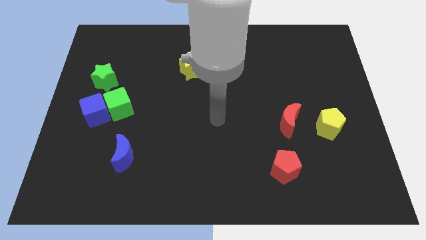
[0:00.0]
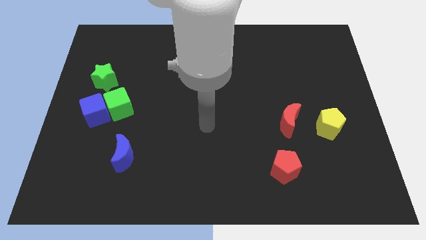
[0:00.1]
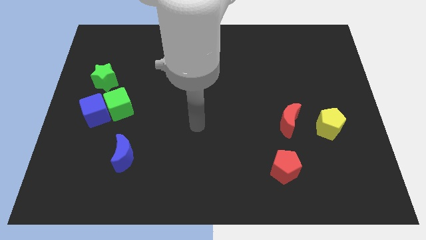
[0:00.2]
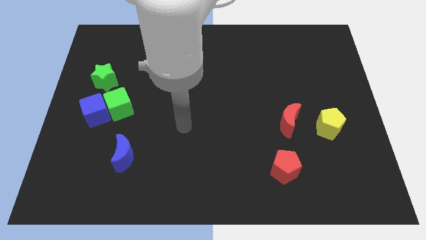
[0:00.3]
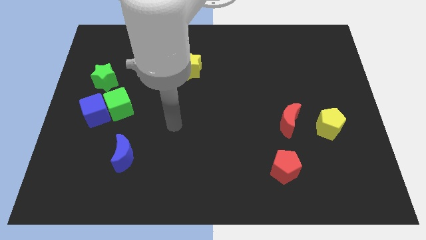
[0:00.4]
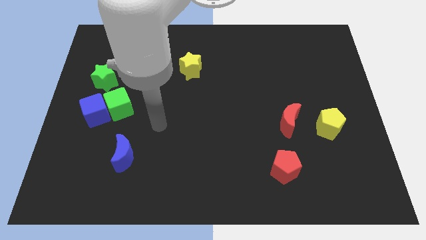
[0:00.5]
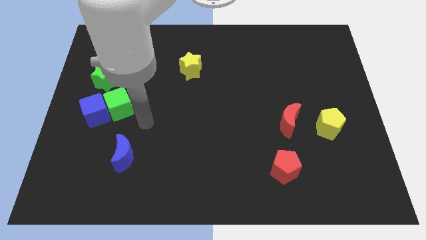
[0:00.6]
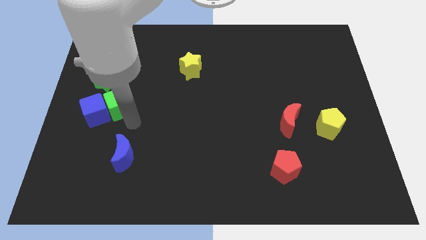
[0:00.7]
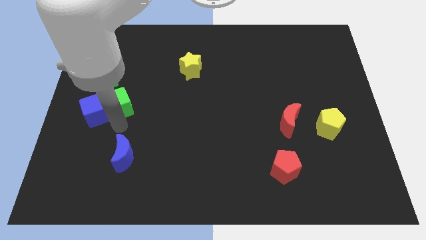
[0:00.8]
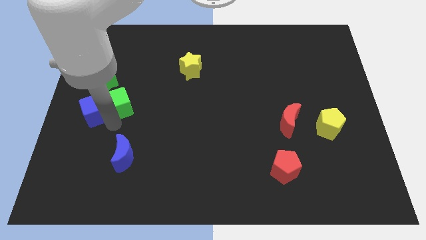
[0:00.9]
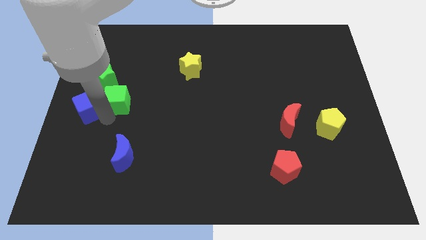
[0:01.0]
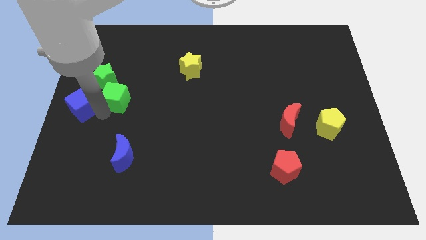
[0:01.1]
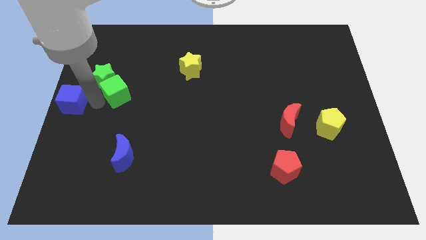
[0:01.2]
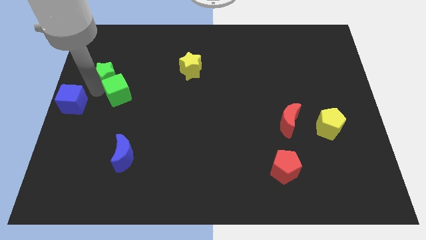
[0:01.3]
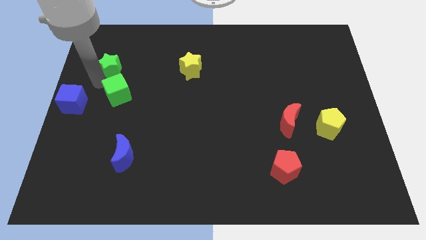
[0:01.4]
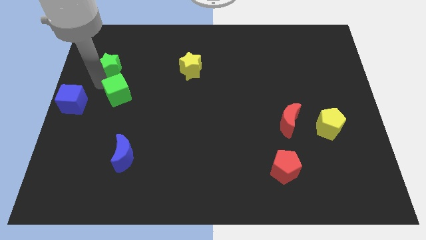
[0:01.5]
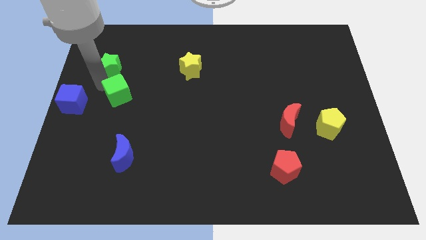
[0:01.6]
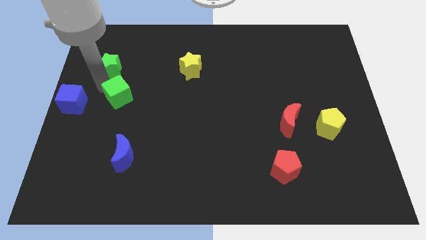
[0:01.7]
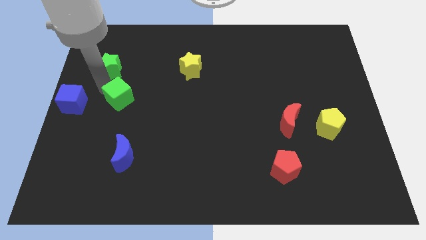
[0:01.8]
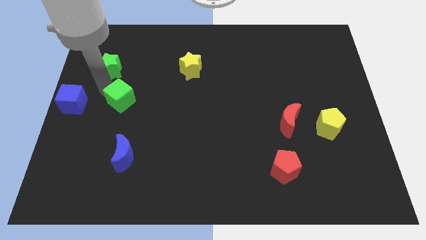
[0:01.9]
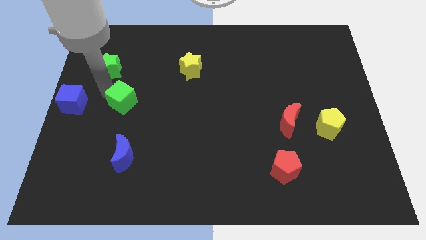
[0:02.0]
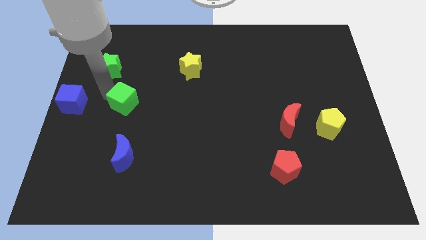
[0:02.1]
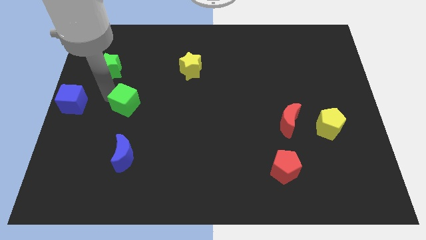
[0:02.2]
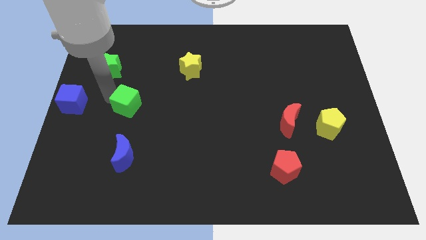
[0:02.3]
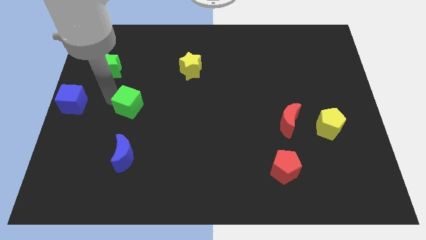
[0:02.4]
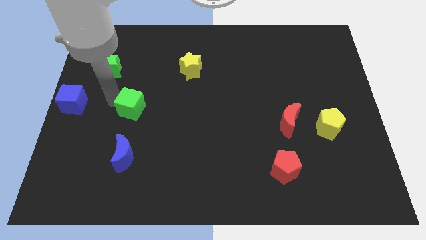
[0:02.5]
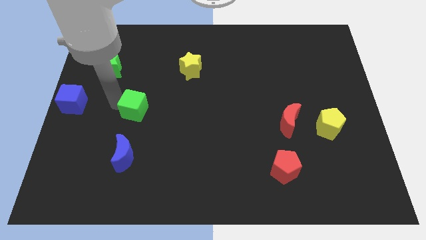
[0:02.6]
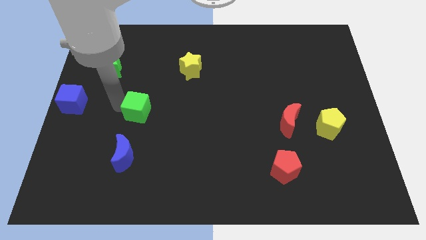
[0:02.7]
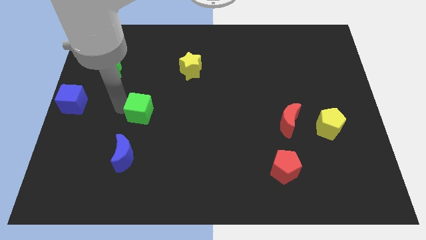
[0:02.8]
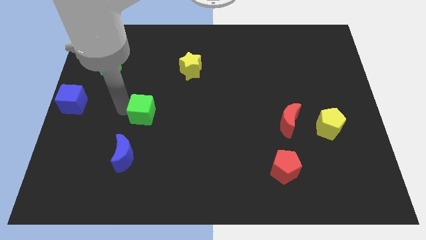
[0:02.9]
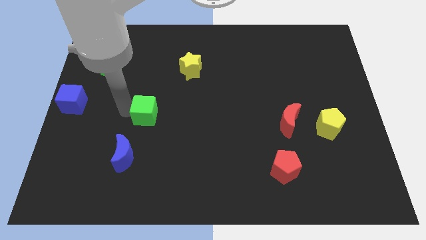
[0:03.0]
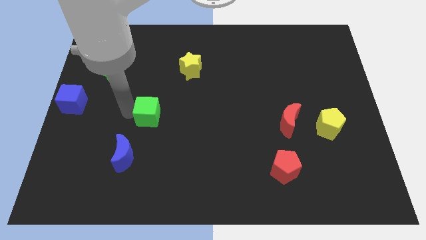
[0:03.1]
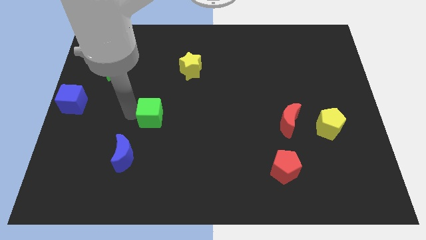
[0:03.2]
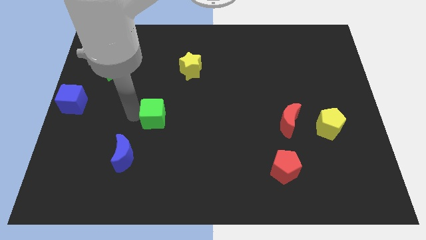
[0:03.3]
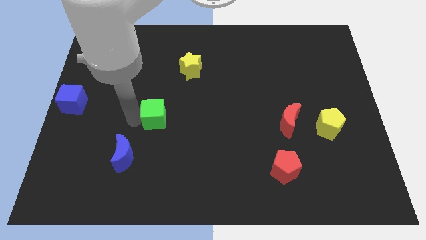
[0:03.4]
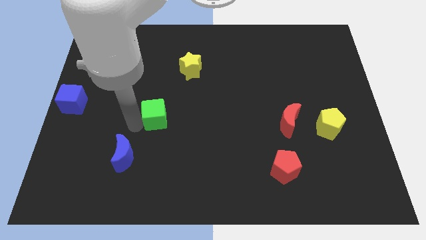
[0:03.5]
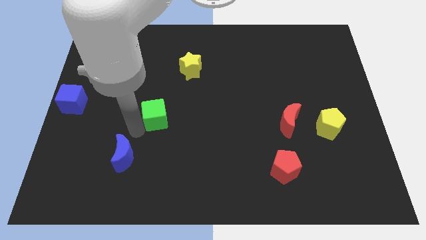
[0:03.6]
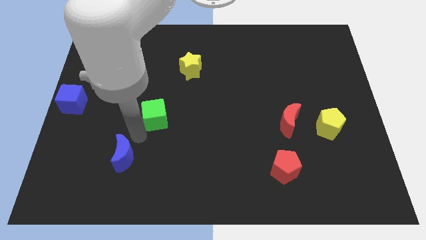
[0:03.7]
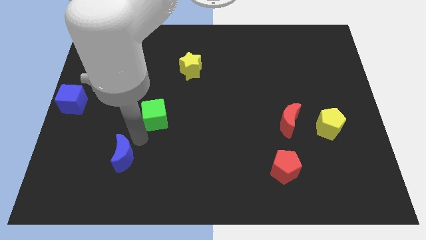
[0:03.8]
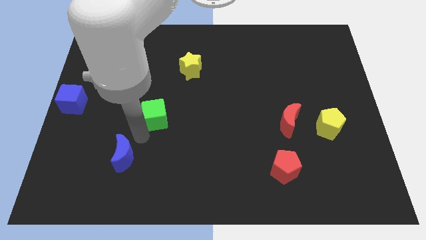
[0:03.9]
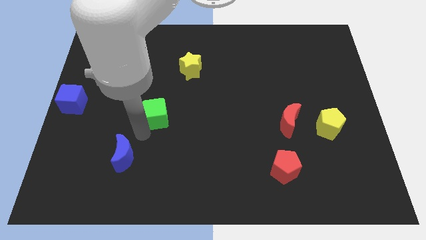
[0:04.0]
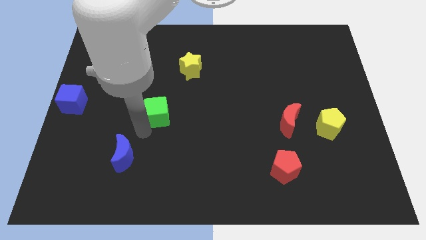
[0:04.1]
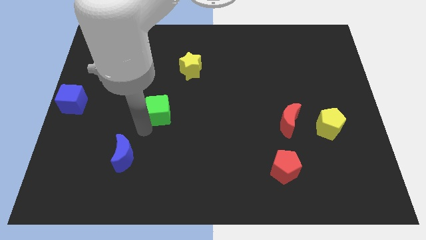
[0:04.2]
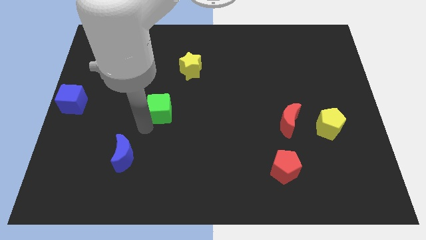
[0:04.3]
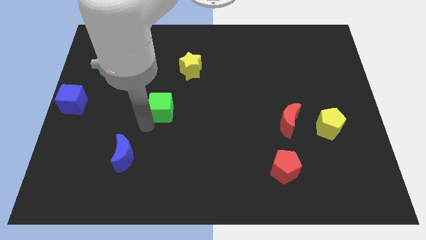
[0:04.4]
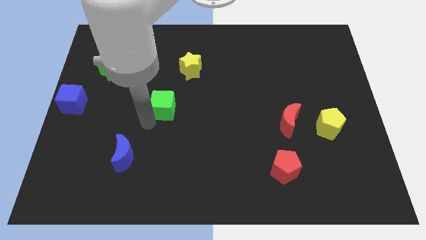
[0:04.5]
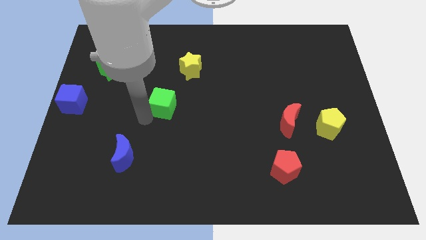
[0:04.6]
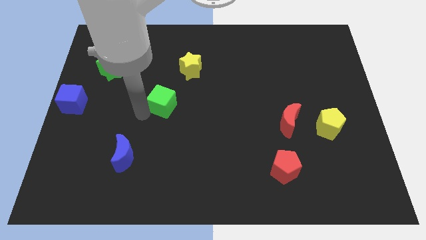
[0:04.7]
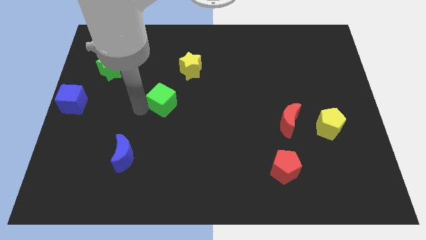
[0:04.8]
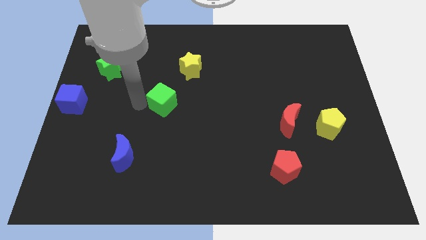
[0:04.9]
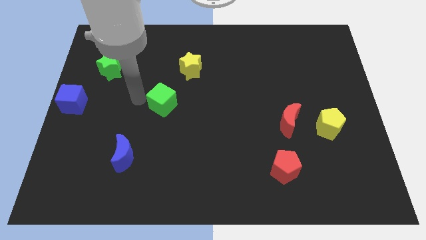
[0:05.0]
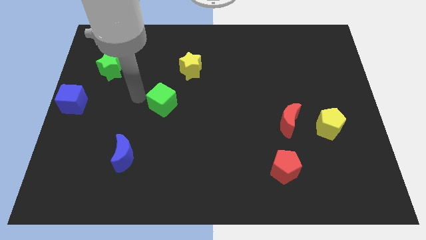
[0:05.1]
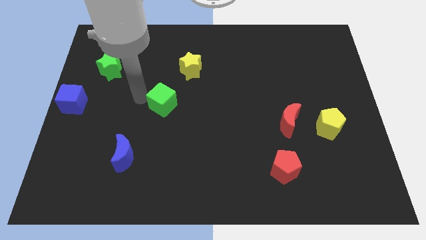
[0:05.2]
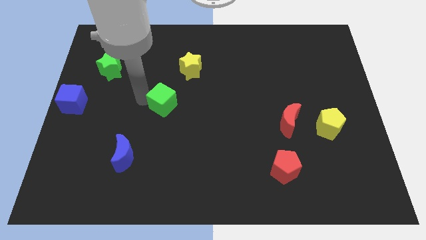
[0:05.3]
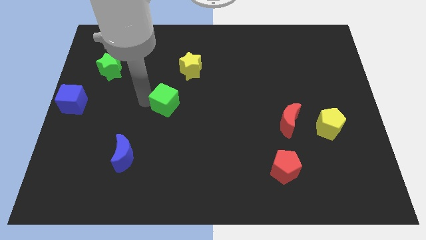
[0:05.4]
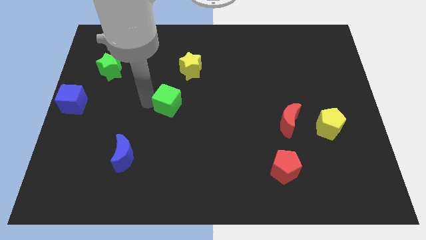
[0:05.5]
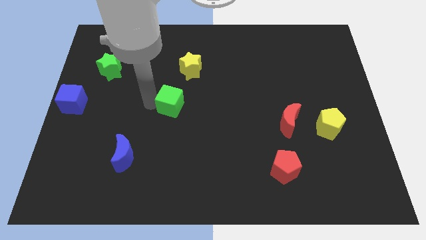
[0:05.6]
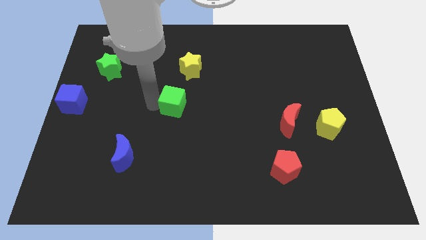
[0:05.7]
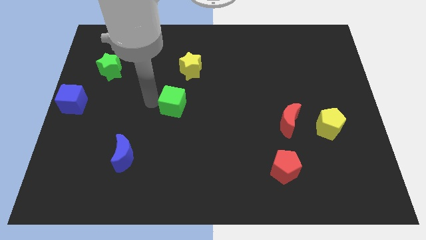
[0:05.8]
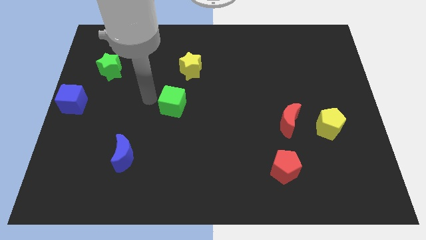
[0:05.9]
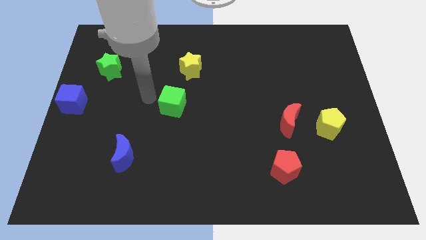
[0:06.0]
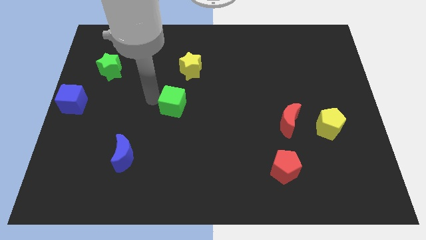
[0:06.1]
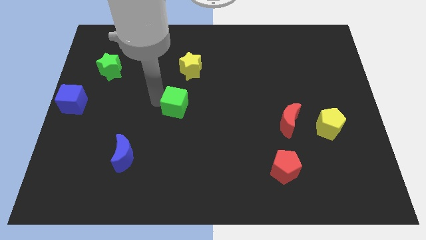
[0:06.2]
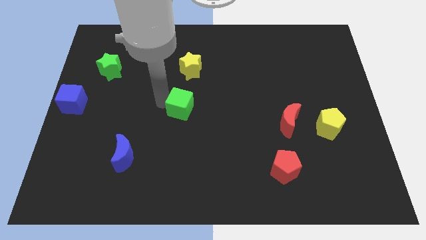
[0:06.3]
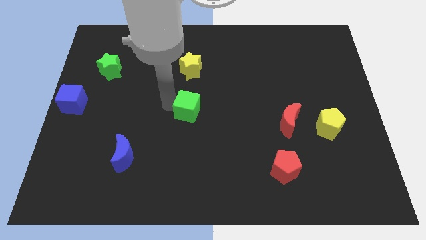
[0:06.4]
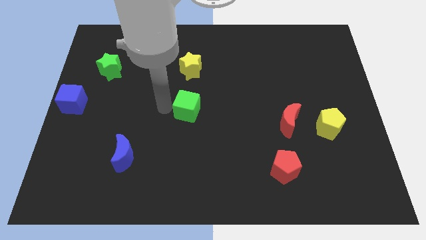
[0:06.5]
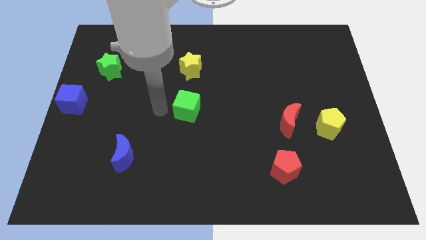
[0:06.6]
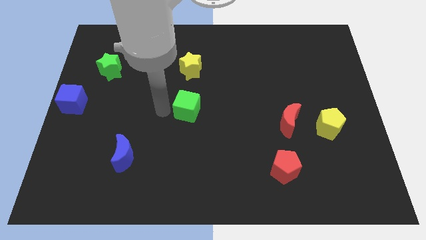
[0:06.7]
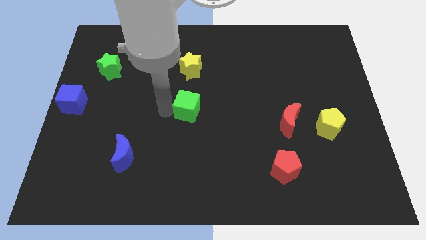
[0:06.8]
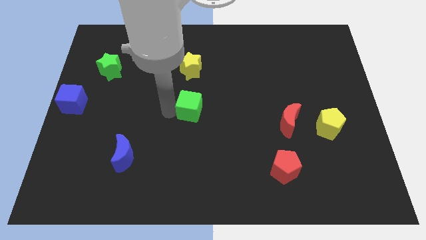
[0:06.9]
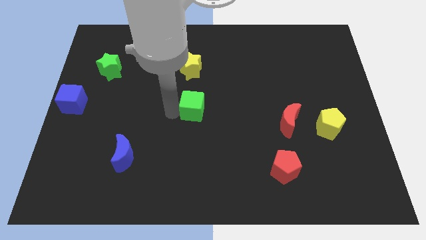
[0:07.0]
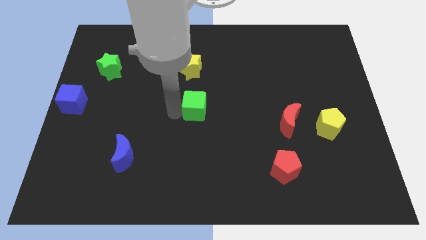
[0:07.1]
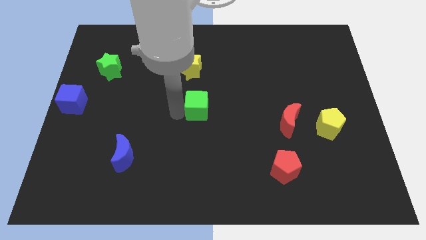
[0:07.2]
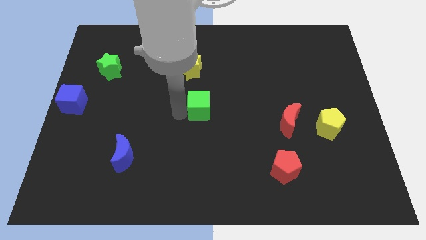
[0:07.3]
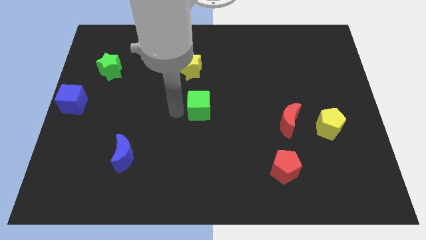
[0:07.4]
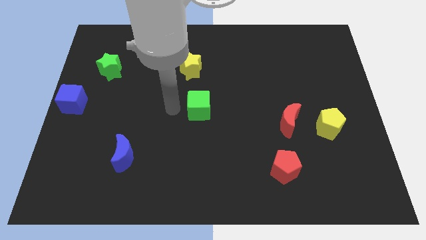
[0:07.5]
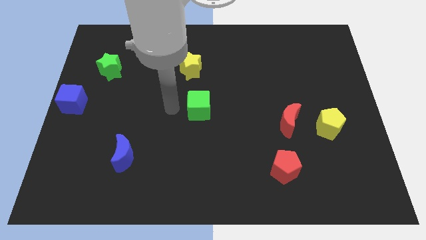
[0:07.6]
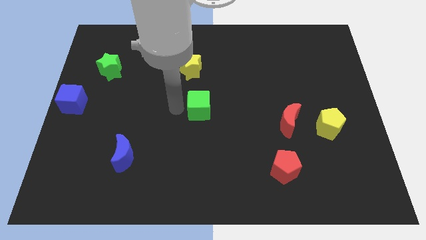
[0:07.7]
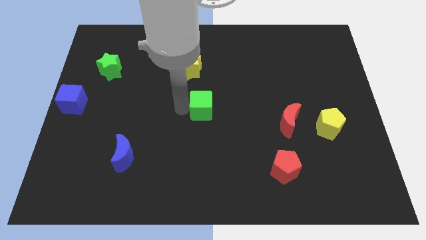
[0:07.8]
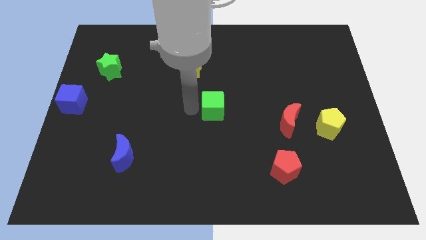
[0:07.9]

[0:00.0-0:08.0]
slide the green cube right
